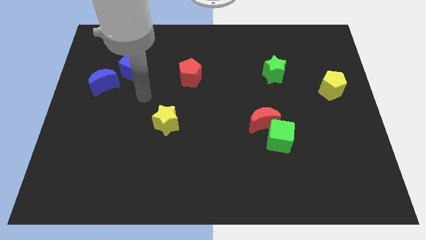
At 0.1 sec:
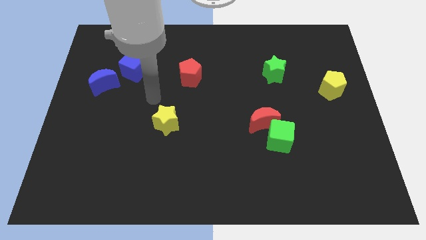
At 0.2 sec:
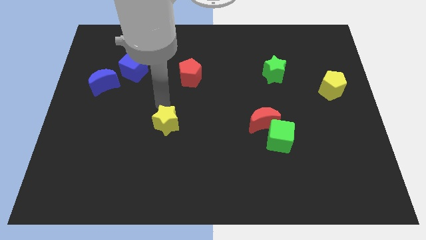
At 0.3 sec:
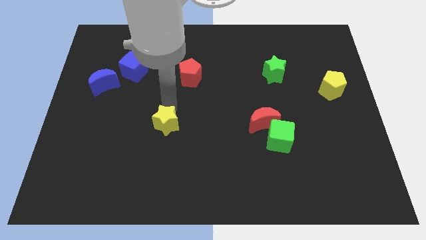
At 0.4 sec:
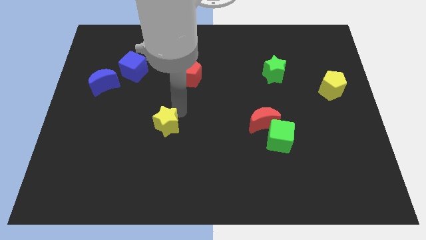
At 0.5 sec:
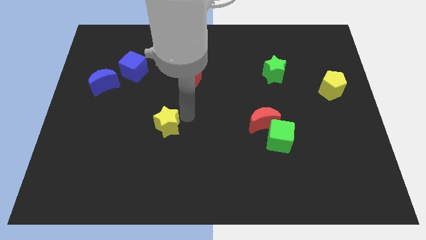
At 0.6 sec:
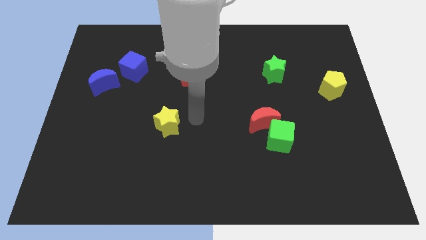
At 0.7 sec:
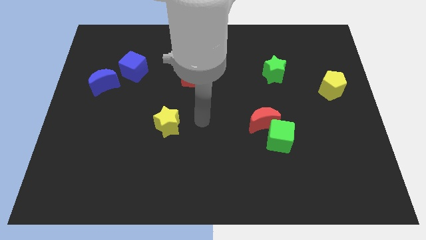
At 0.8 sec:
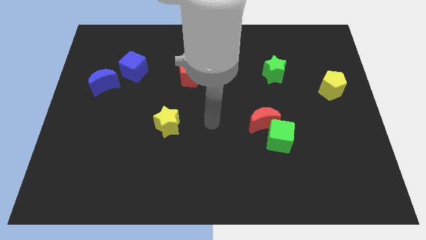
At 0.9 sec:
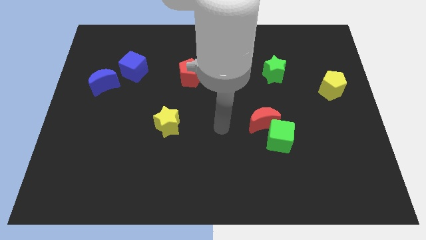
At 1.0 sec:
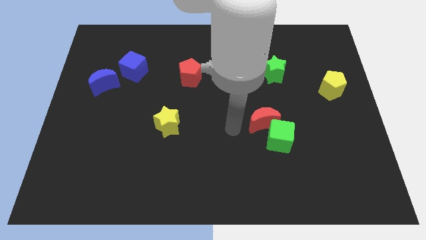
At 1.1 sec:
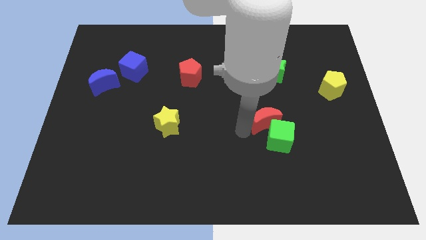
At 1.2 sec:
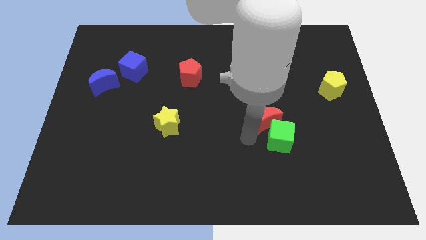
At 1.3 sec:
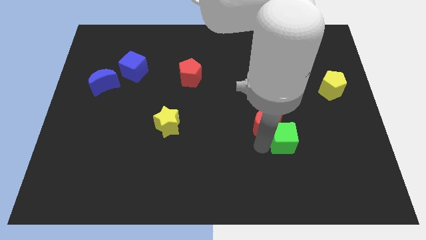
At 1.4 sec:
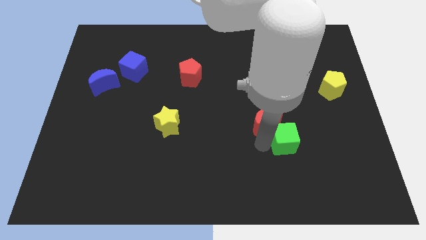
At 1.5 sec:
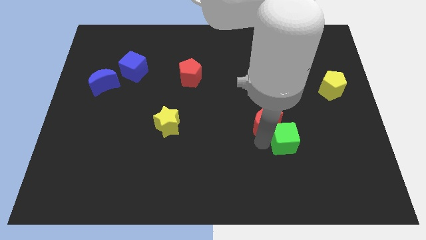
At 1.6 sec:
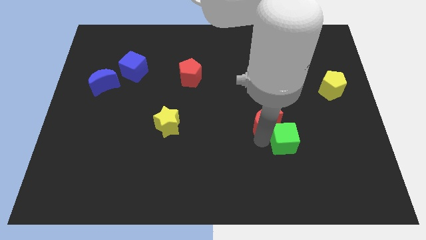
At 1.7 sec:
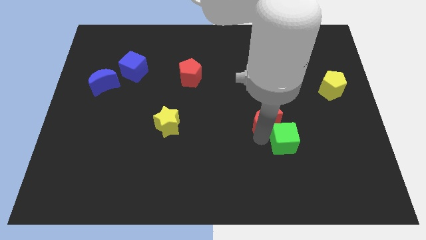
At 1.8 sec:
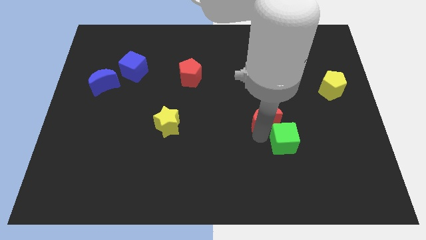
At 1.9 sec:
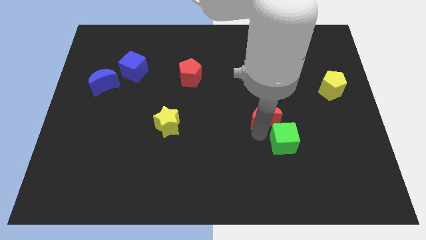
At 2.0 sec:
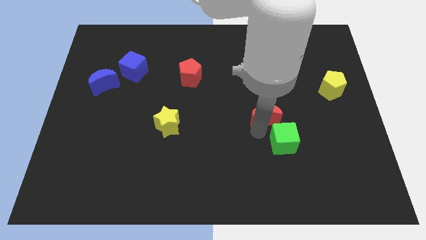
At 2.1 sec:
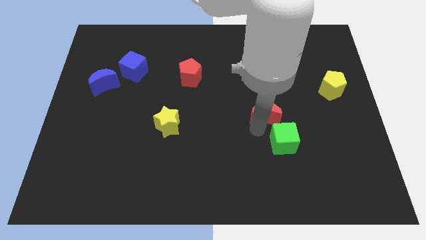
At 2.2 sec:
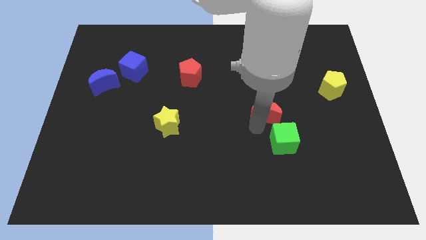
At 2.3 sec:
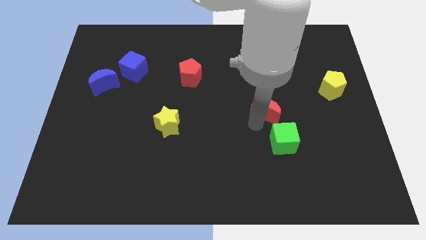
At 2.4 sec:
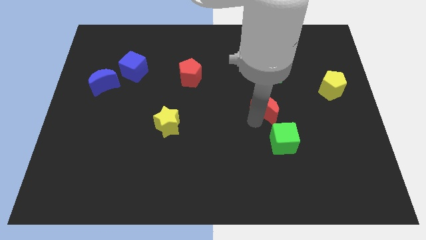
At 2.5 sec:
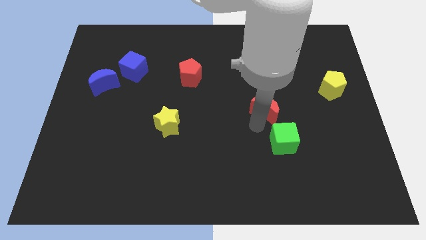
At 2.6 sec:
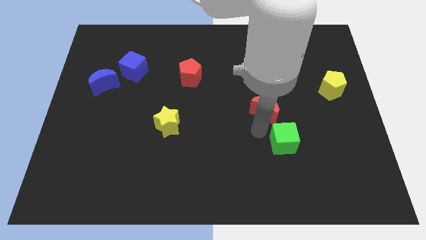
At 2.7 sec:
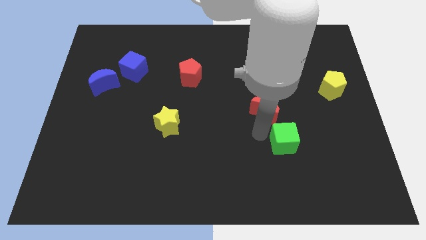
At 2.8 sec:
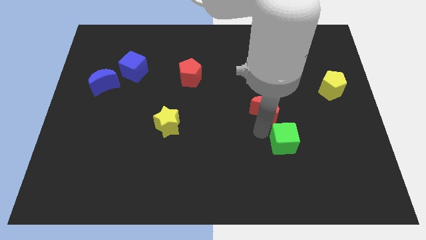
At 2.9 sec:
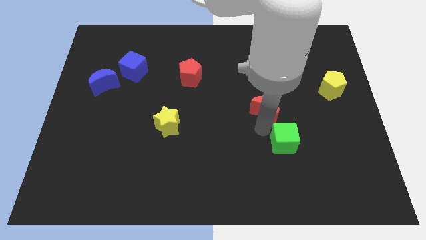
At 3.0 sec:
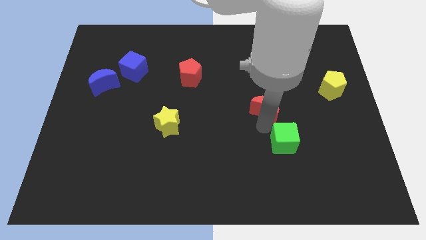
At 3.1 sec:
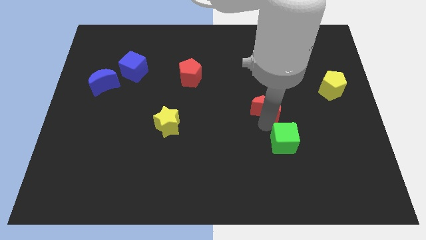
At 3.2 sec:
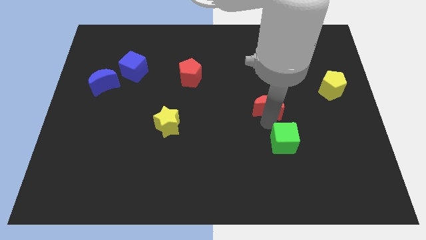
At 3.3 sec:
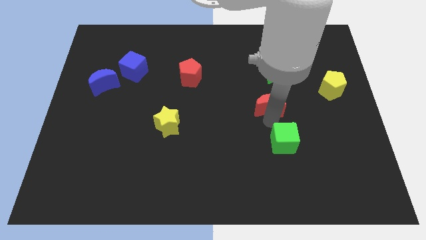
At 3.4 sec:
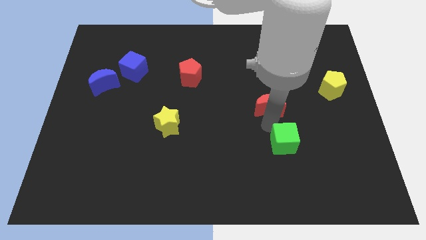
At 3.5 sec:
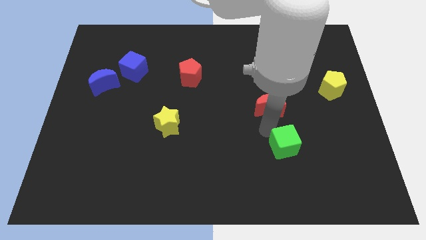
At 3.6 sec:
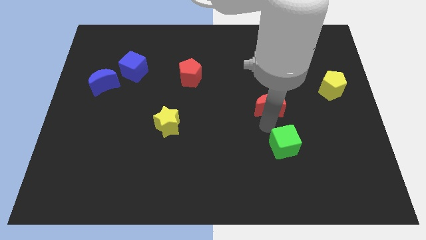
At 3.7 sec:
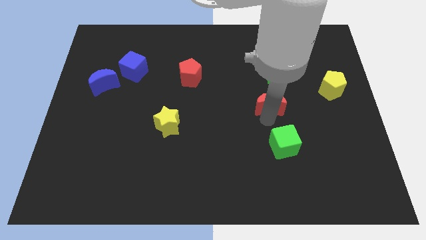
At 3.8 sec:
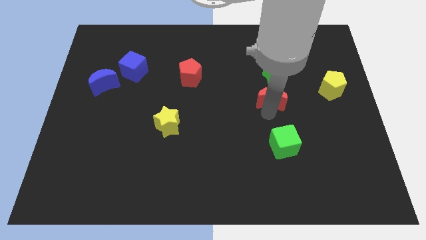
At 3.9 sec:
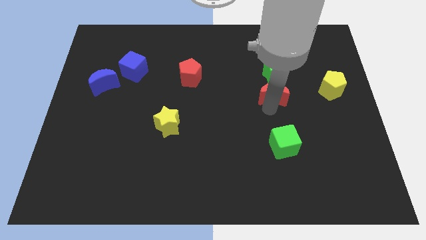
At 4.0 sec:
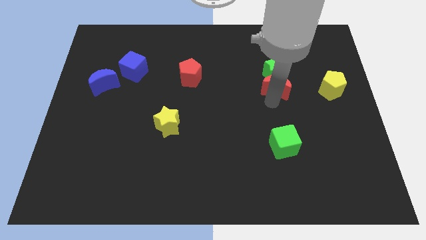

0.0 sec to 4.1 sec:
push the red moon close to the green star

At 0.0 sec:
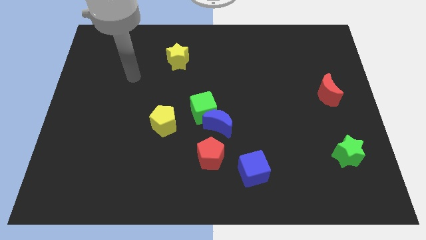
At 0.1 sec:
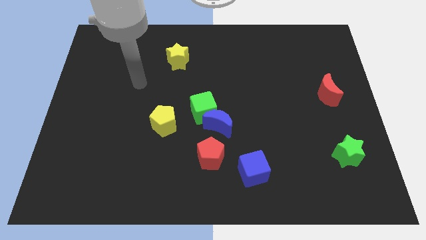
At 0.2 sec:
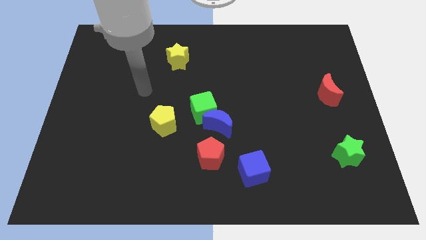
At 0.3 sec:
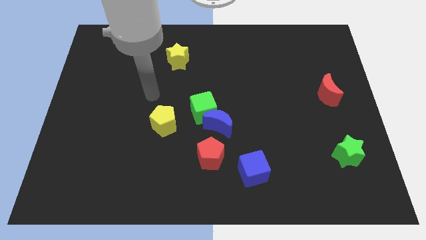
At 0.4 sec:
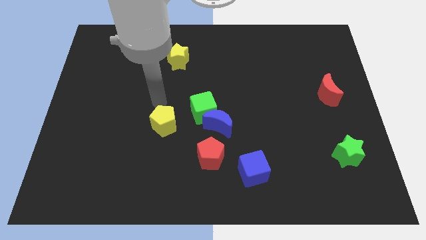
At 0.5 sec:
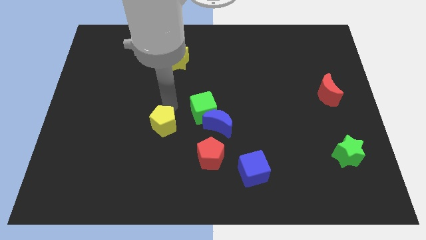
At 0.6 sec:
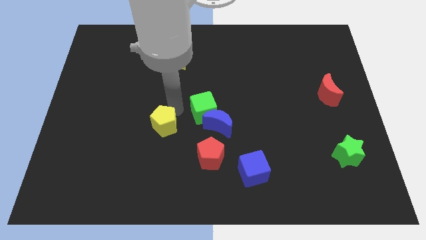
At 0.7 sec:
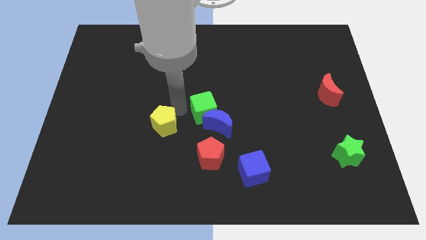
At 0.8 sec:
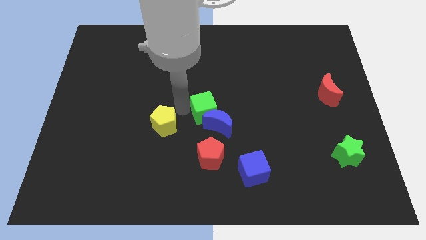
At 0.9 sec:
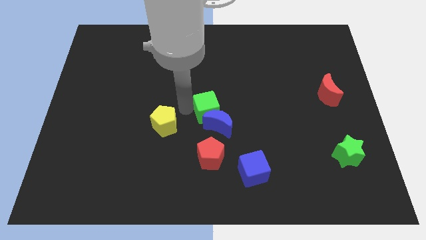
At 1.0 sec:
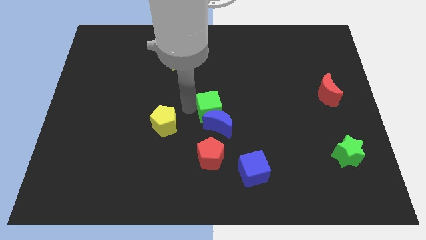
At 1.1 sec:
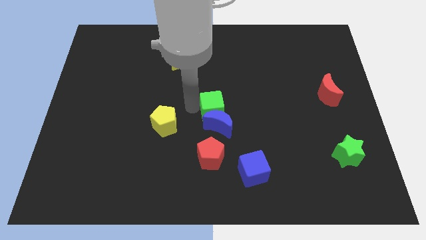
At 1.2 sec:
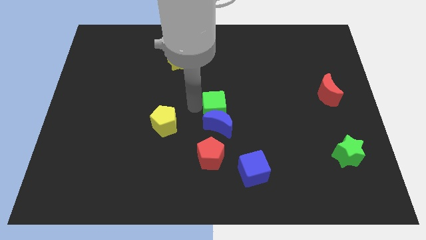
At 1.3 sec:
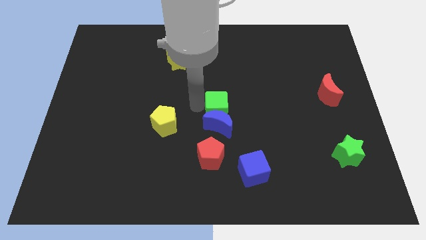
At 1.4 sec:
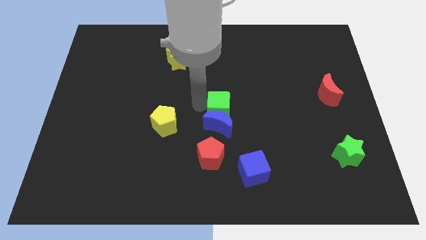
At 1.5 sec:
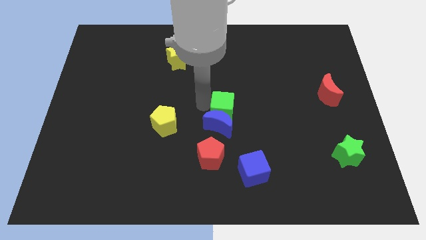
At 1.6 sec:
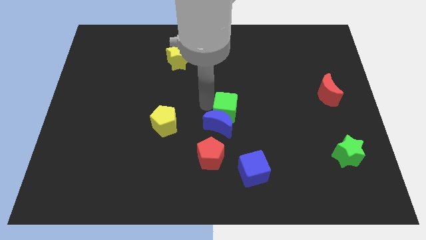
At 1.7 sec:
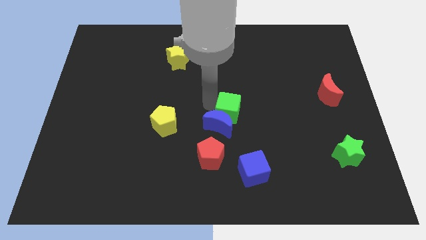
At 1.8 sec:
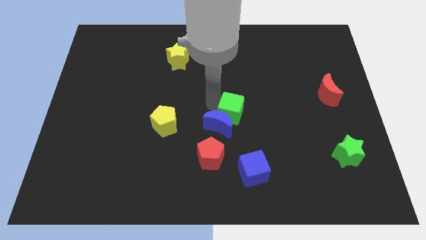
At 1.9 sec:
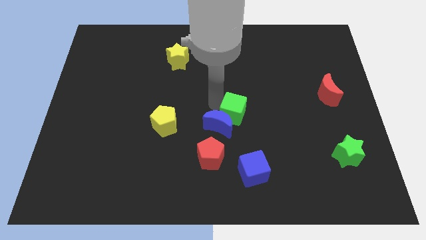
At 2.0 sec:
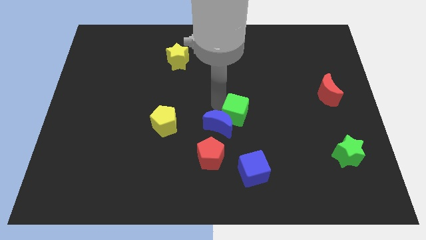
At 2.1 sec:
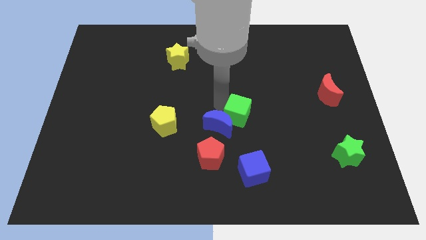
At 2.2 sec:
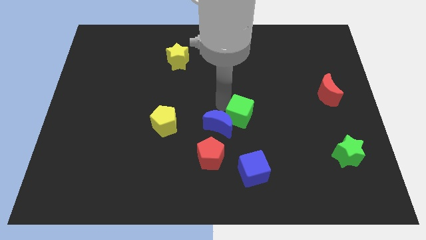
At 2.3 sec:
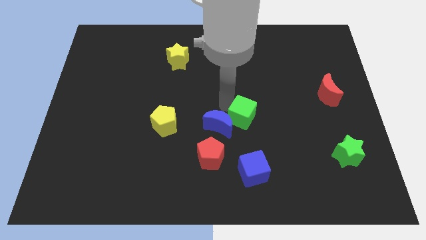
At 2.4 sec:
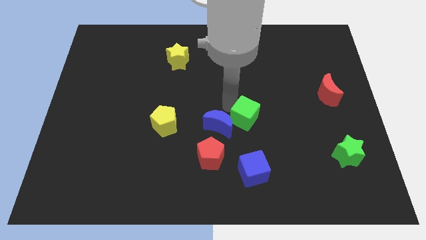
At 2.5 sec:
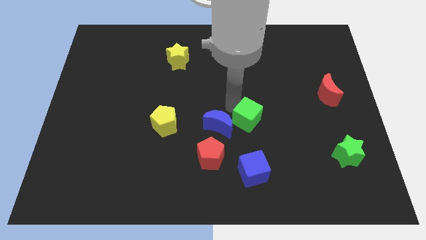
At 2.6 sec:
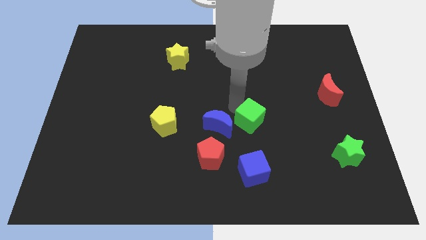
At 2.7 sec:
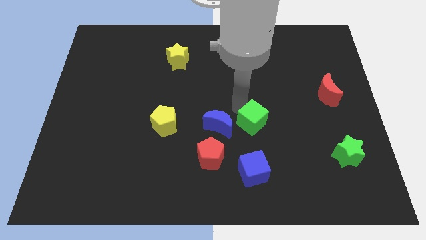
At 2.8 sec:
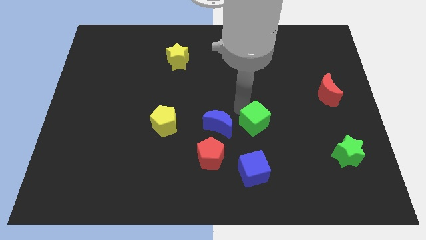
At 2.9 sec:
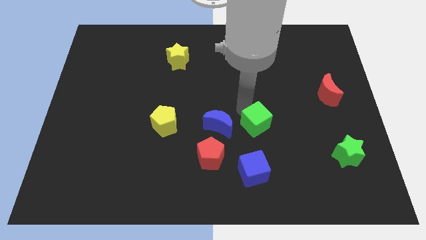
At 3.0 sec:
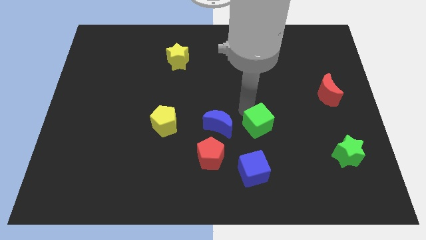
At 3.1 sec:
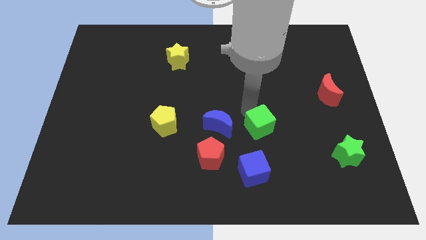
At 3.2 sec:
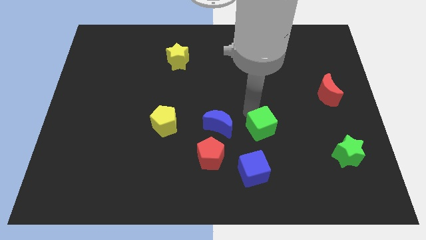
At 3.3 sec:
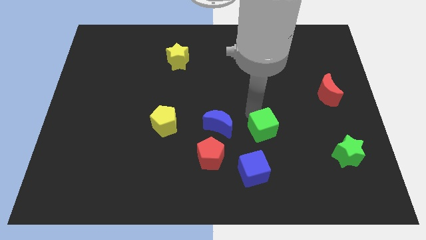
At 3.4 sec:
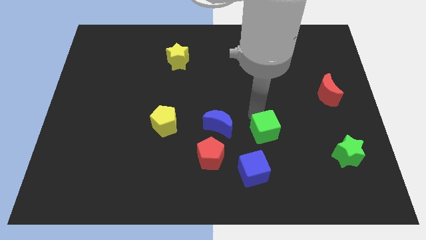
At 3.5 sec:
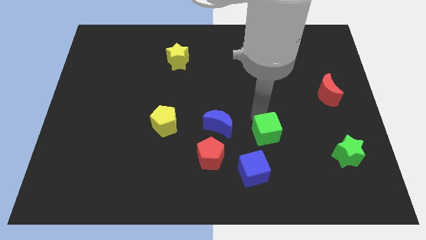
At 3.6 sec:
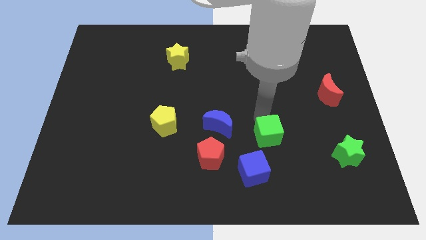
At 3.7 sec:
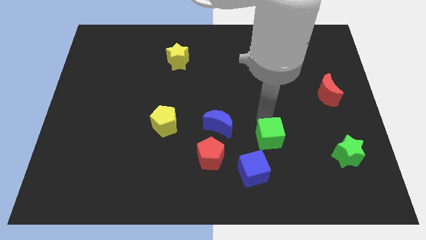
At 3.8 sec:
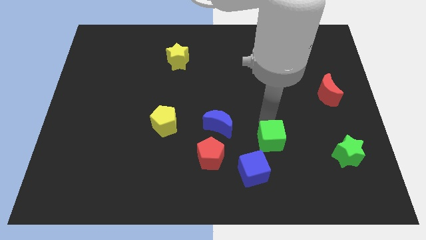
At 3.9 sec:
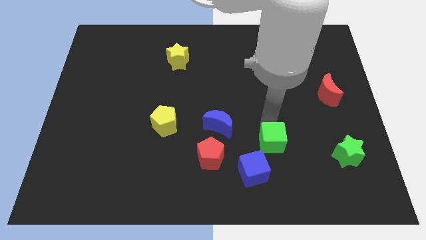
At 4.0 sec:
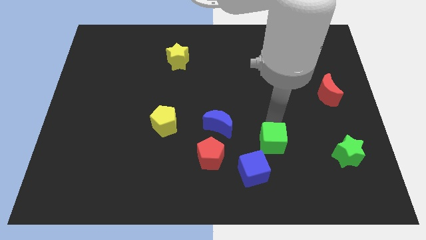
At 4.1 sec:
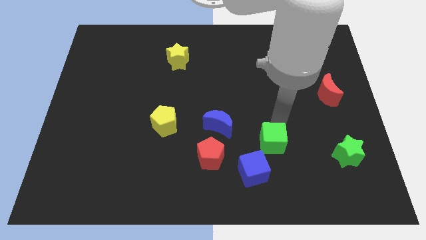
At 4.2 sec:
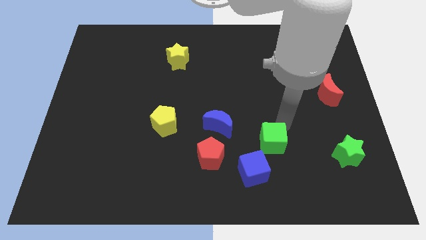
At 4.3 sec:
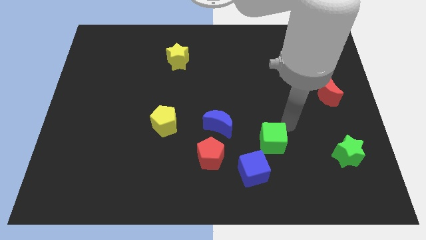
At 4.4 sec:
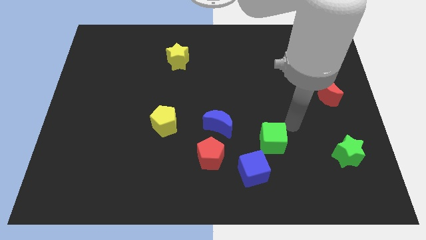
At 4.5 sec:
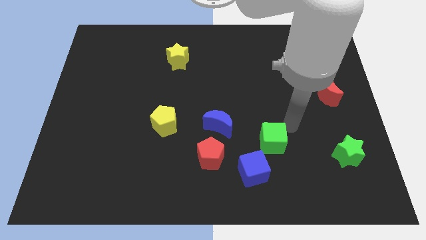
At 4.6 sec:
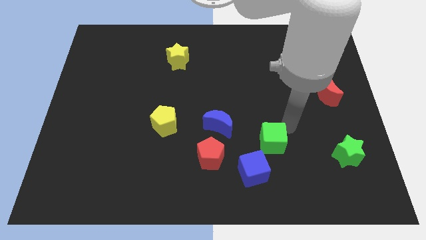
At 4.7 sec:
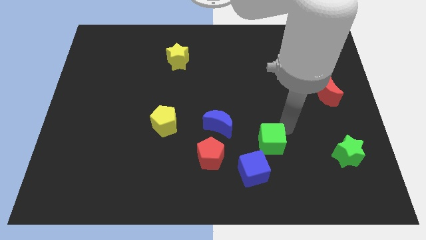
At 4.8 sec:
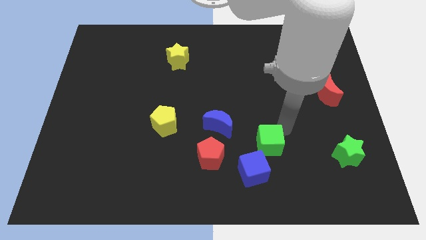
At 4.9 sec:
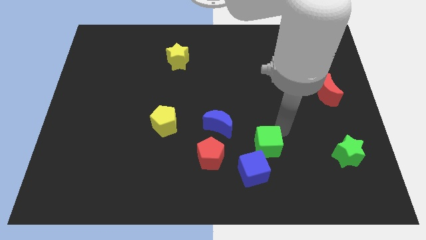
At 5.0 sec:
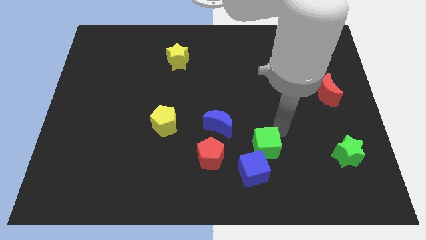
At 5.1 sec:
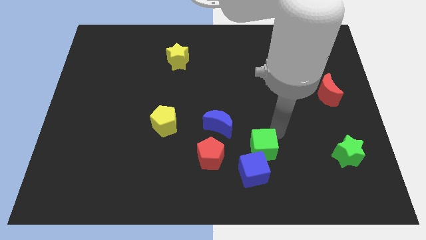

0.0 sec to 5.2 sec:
put the green cube to the blue cube
